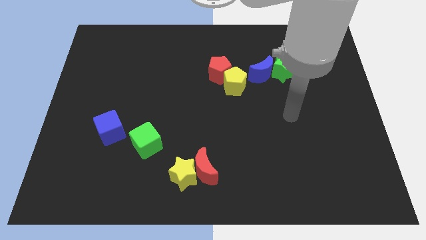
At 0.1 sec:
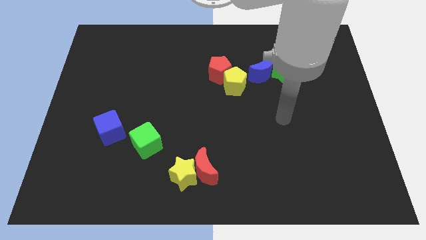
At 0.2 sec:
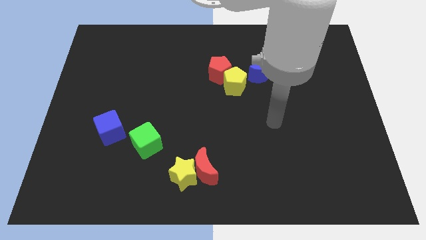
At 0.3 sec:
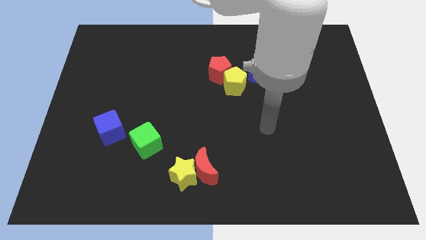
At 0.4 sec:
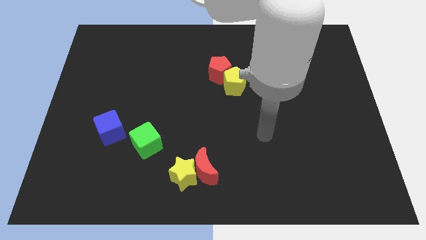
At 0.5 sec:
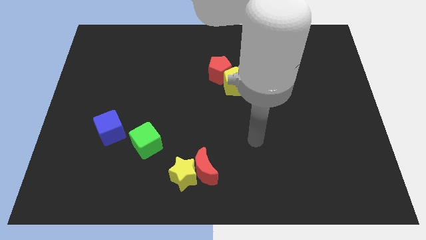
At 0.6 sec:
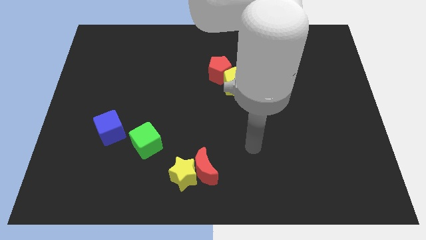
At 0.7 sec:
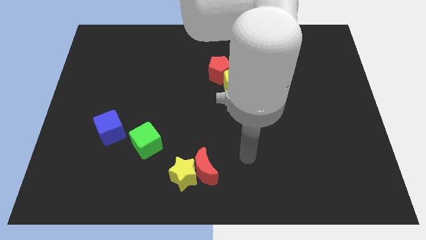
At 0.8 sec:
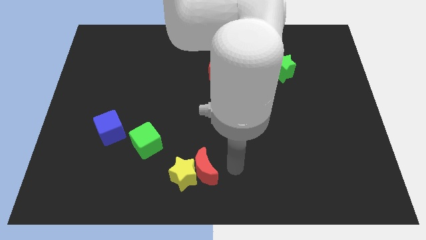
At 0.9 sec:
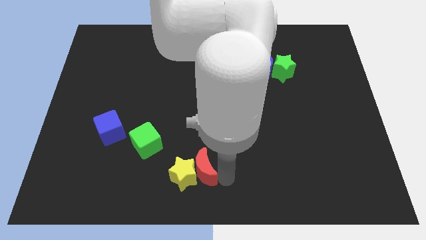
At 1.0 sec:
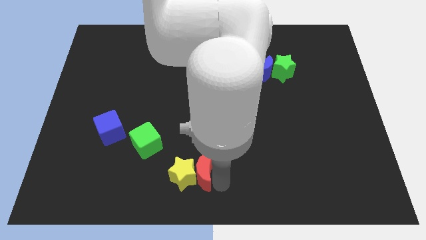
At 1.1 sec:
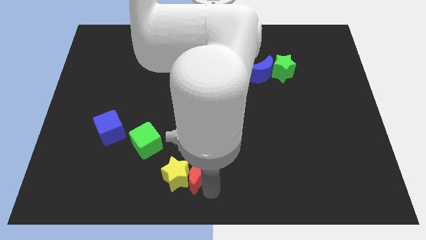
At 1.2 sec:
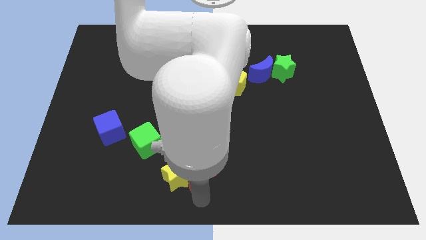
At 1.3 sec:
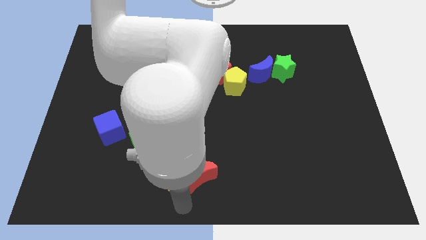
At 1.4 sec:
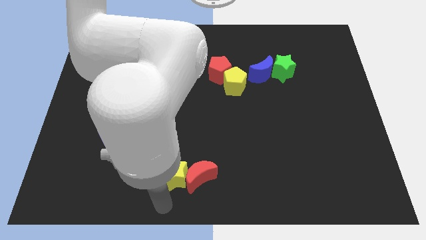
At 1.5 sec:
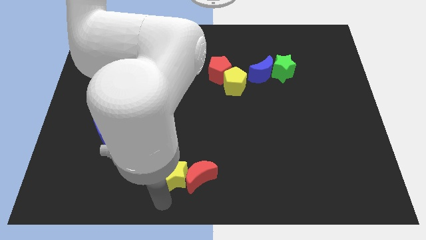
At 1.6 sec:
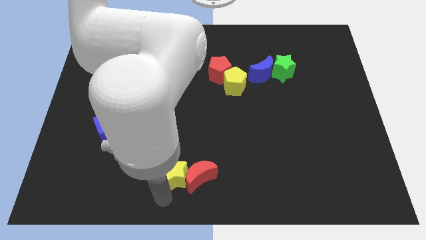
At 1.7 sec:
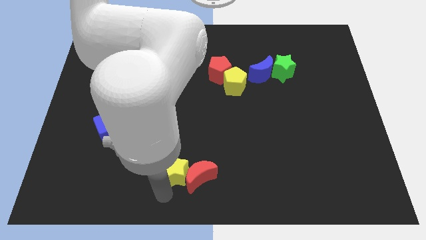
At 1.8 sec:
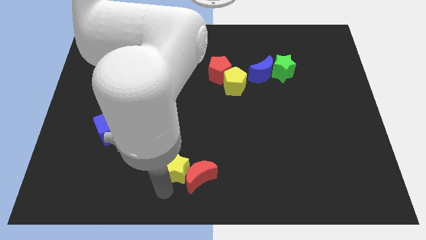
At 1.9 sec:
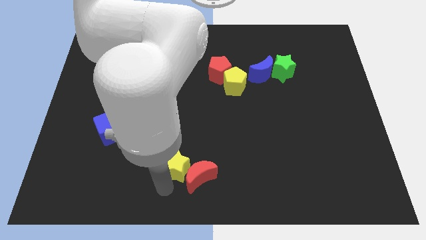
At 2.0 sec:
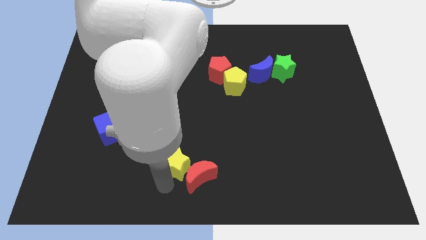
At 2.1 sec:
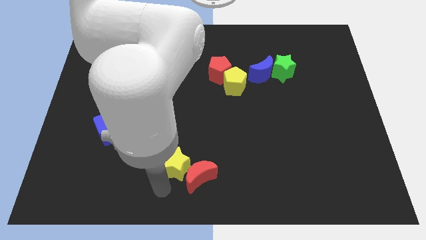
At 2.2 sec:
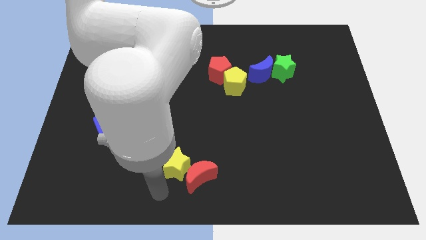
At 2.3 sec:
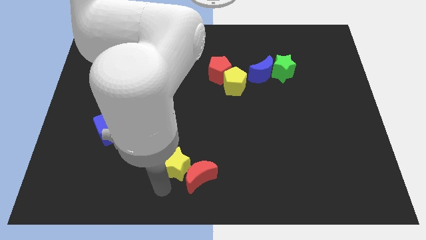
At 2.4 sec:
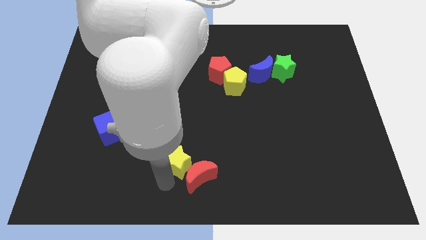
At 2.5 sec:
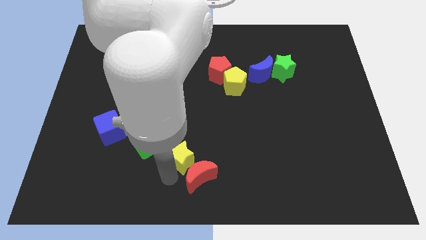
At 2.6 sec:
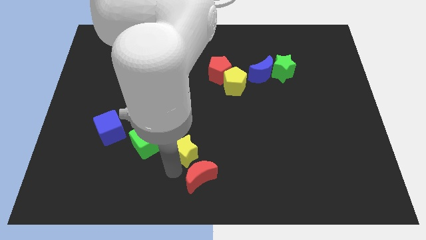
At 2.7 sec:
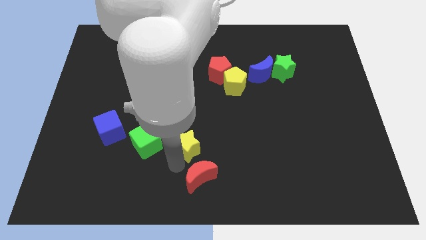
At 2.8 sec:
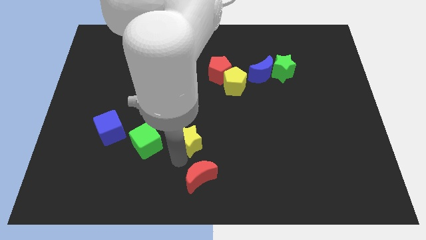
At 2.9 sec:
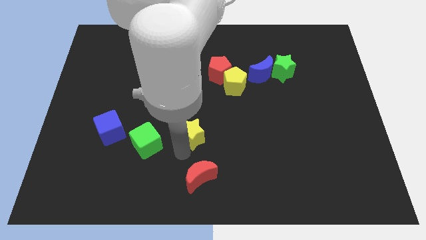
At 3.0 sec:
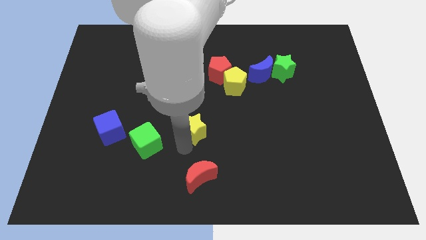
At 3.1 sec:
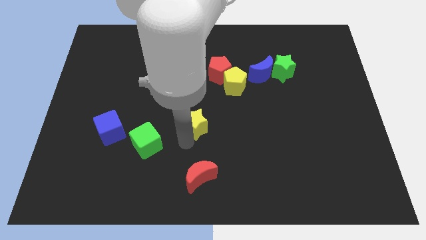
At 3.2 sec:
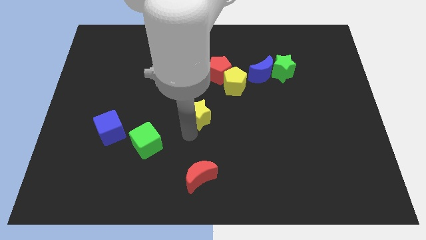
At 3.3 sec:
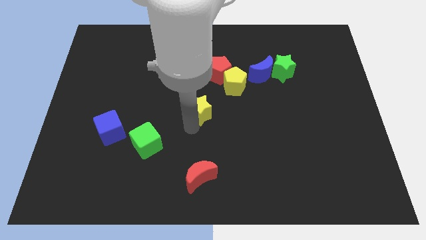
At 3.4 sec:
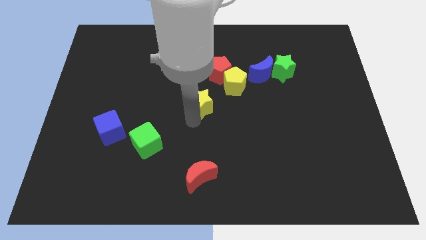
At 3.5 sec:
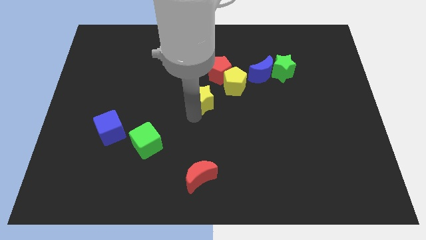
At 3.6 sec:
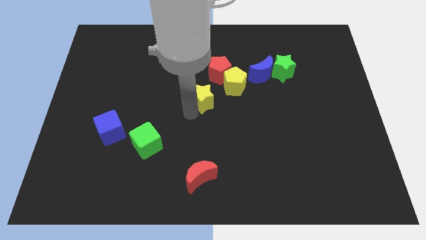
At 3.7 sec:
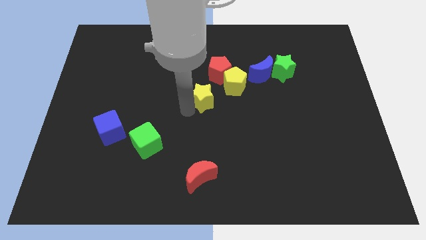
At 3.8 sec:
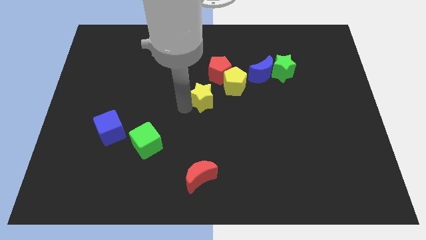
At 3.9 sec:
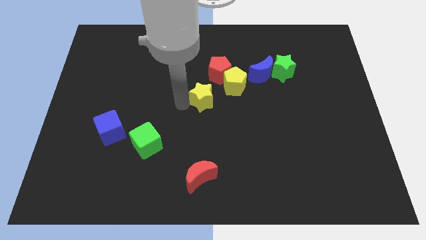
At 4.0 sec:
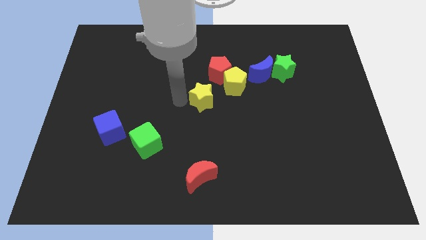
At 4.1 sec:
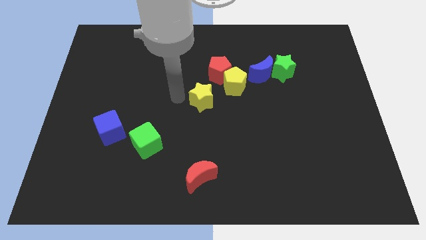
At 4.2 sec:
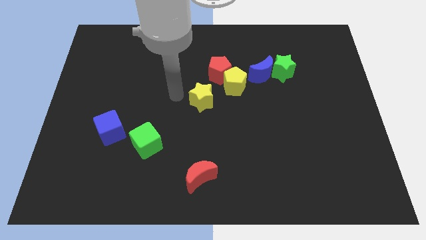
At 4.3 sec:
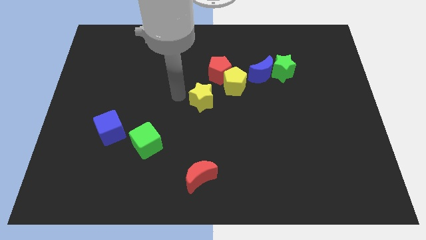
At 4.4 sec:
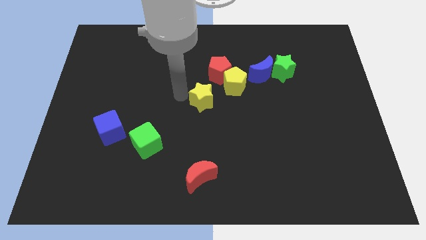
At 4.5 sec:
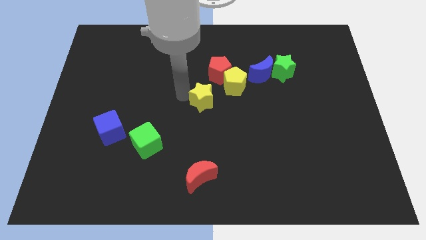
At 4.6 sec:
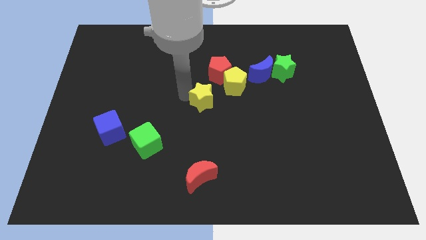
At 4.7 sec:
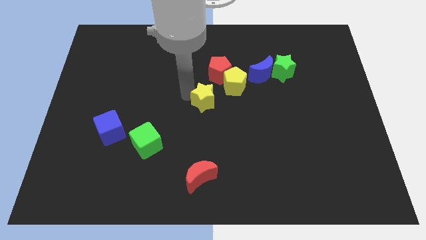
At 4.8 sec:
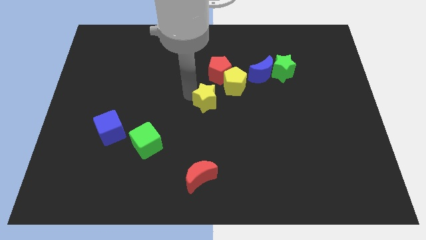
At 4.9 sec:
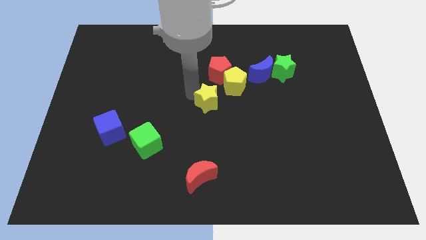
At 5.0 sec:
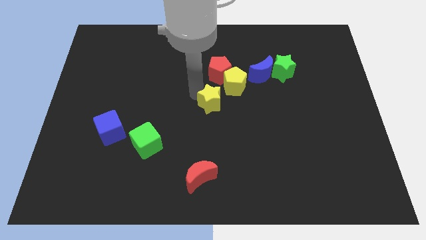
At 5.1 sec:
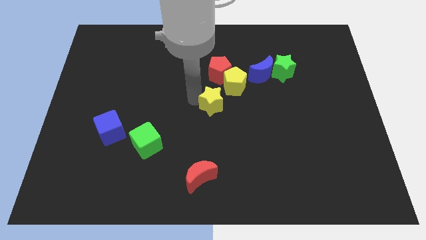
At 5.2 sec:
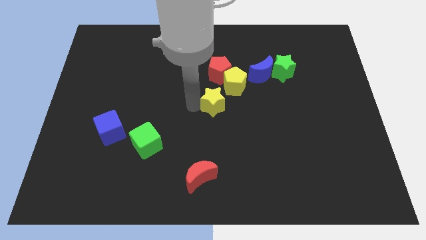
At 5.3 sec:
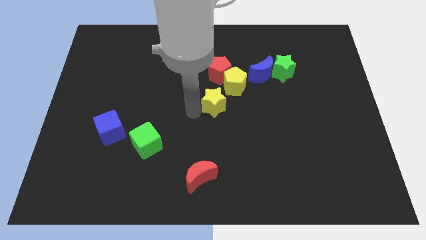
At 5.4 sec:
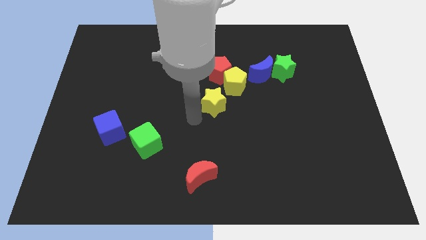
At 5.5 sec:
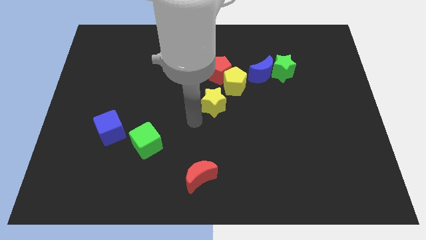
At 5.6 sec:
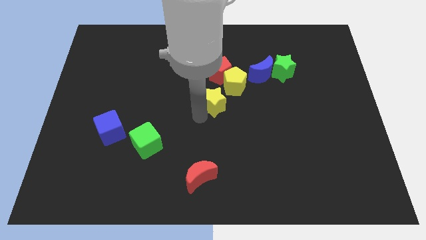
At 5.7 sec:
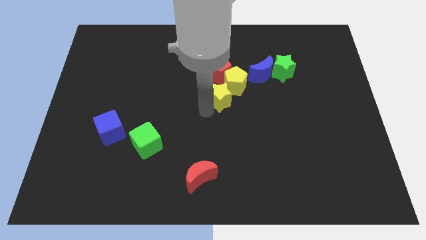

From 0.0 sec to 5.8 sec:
slide the yellow star towards the yellow pentagon
